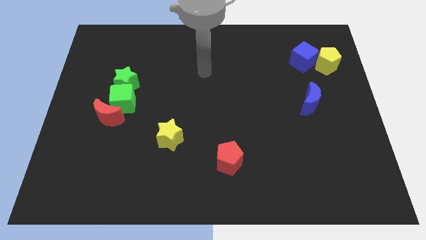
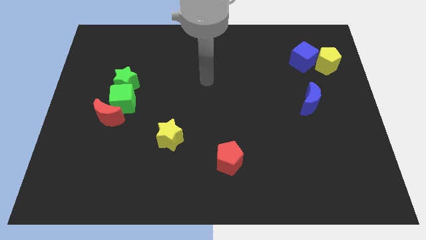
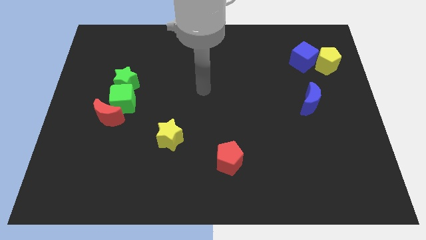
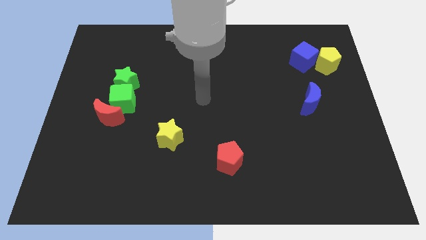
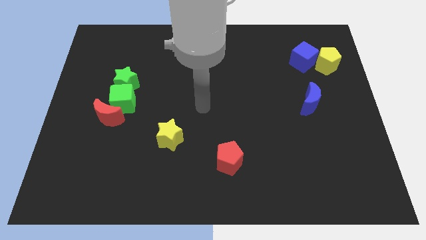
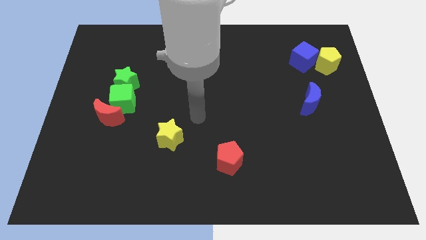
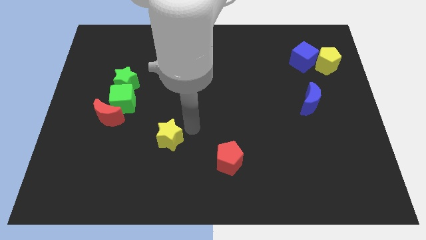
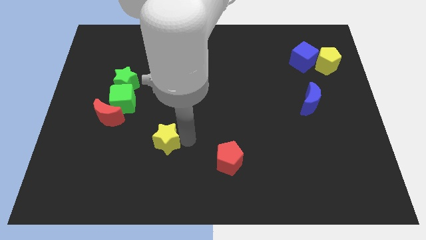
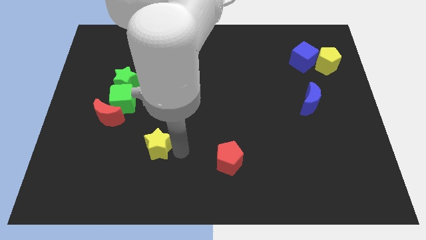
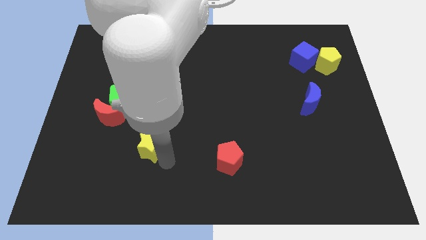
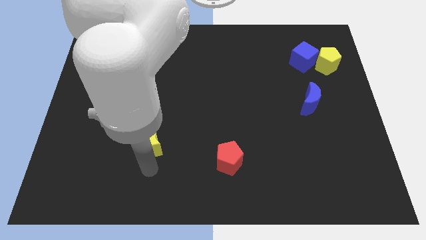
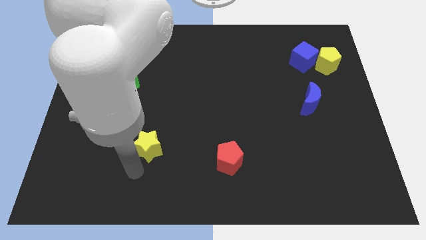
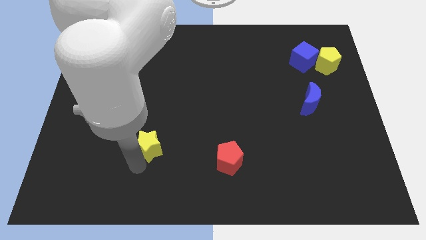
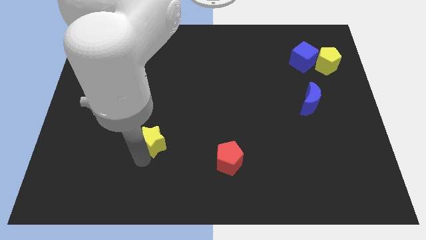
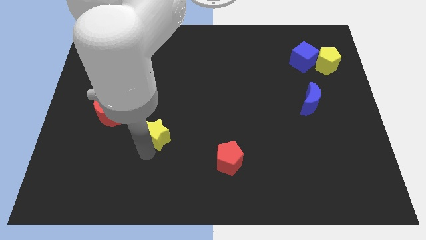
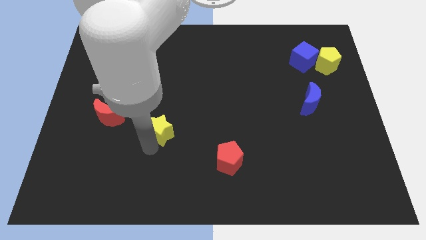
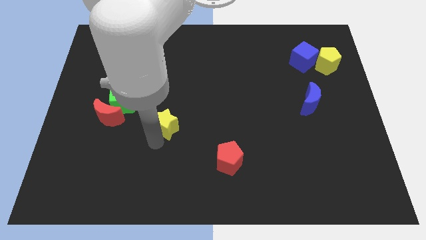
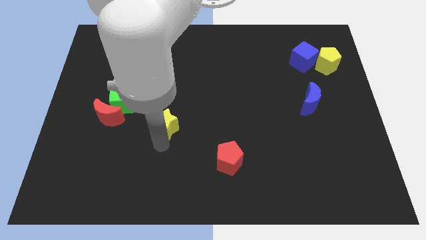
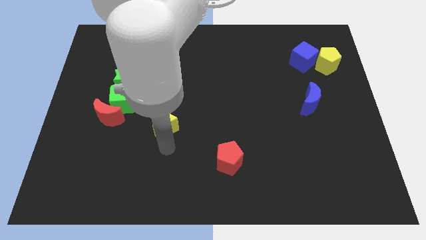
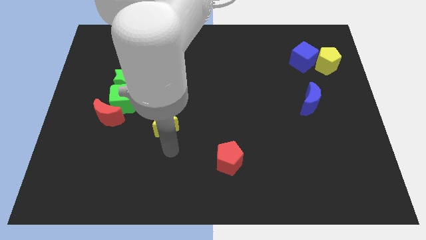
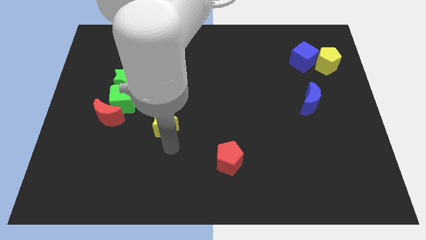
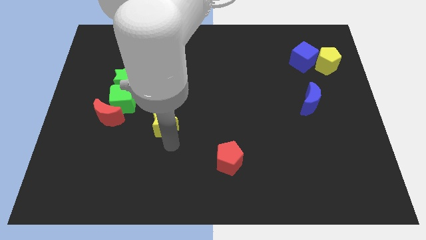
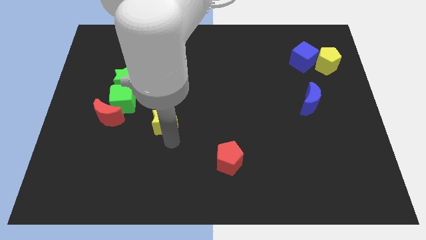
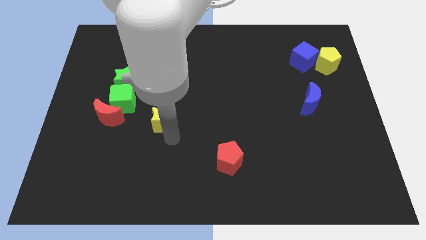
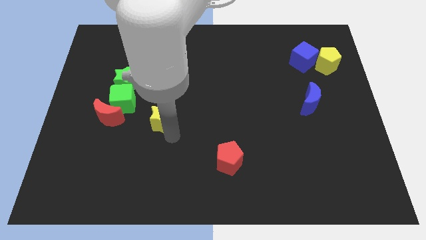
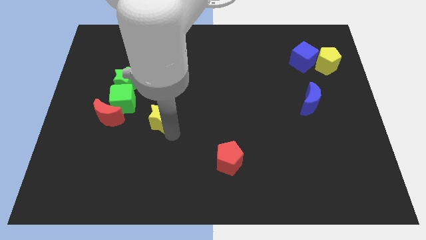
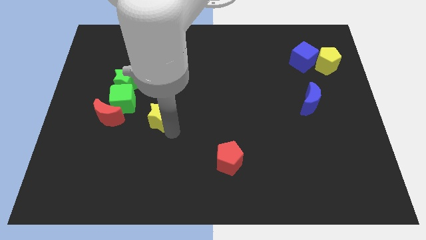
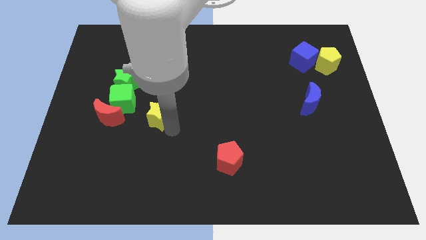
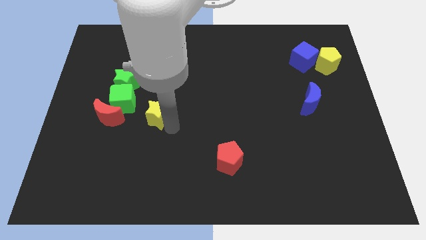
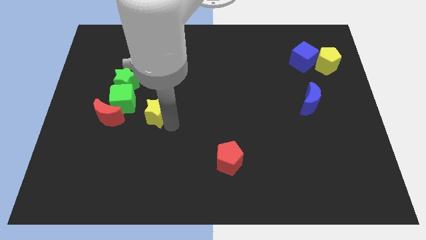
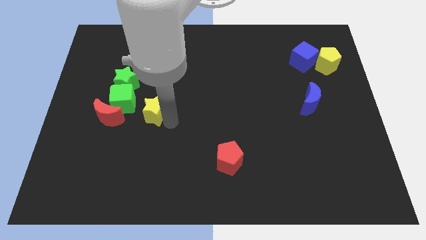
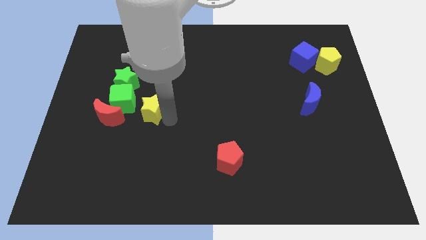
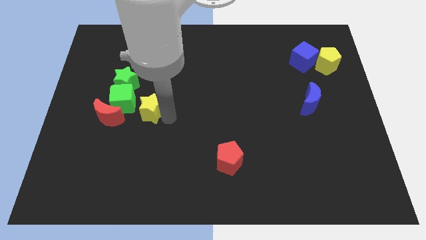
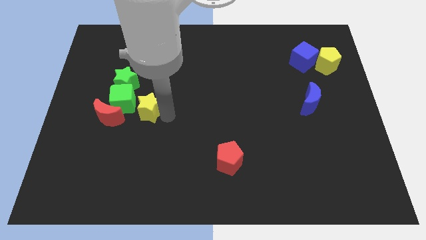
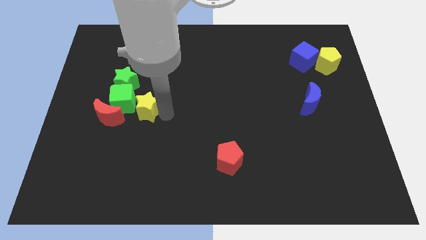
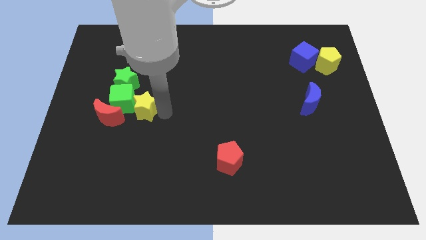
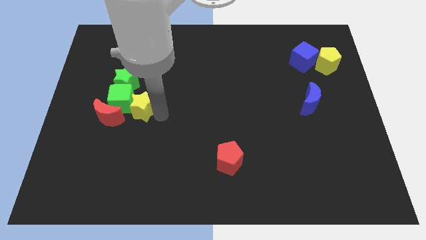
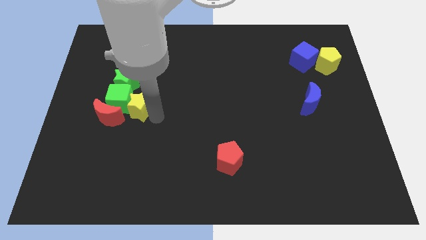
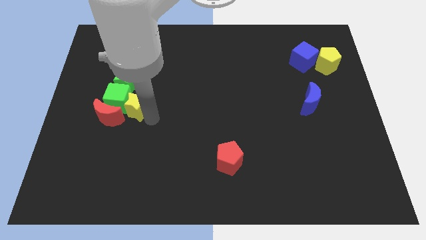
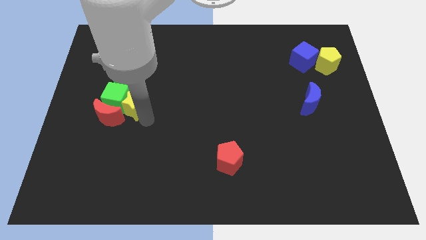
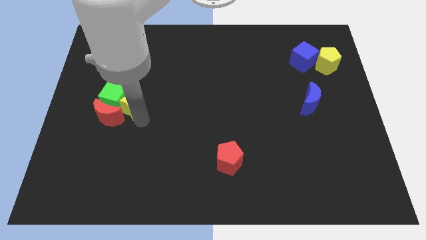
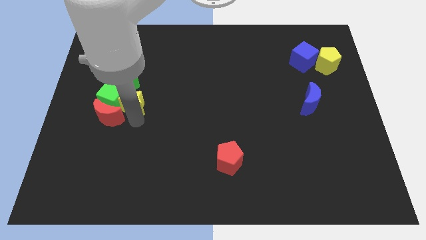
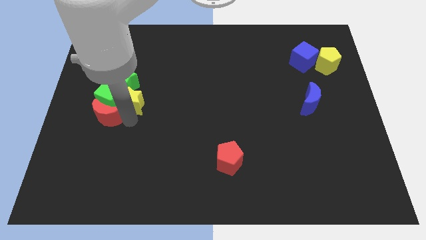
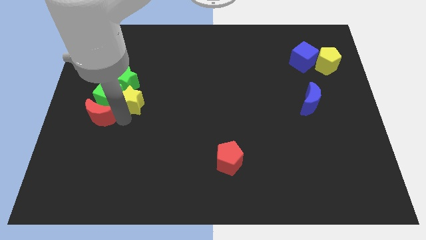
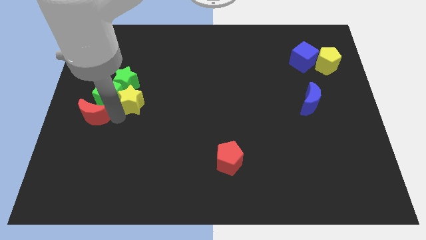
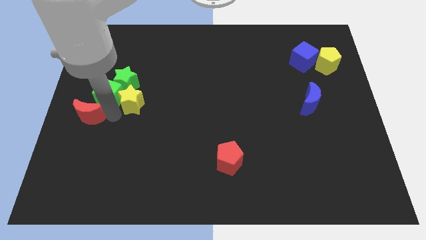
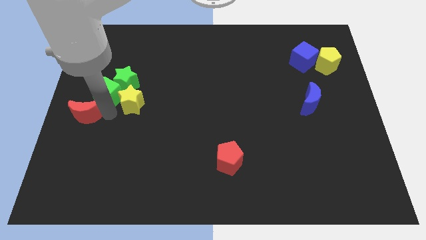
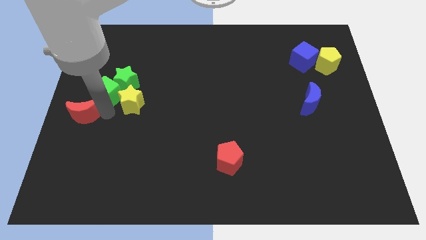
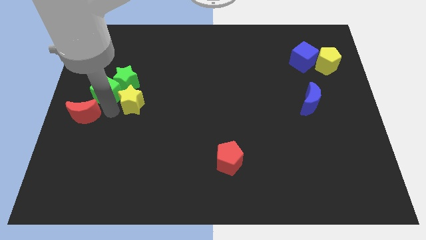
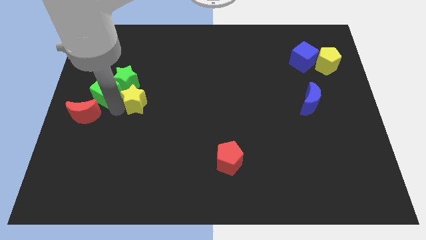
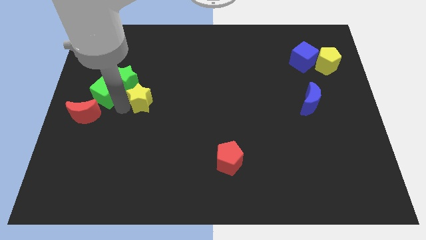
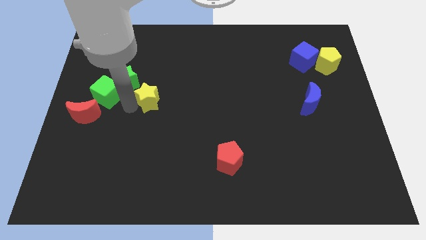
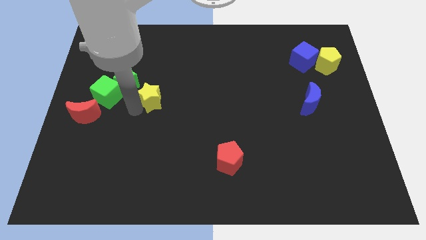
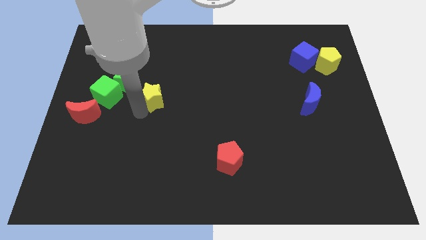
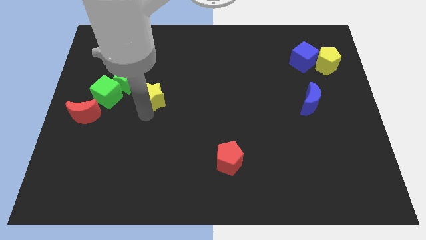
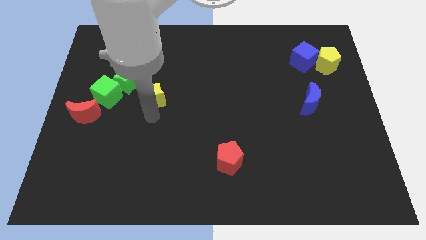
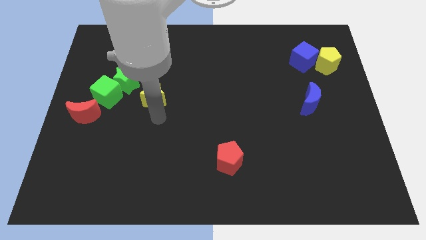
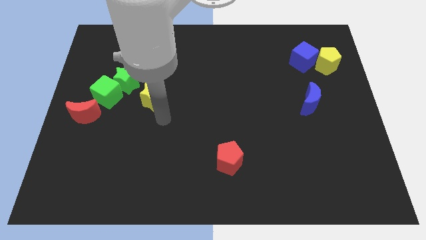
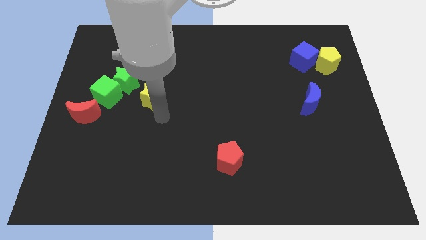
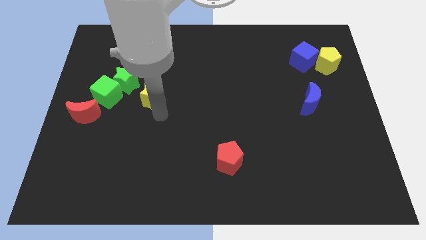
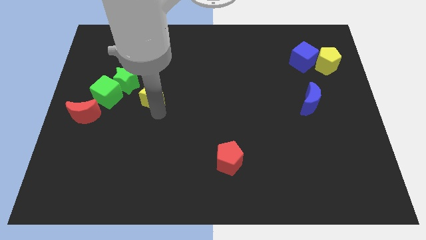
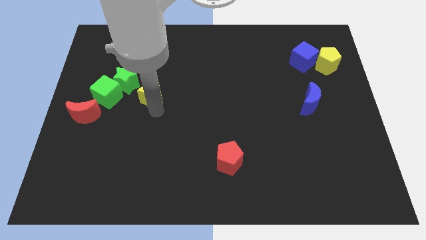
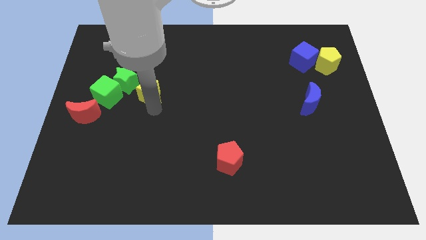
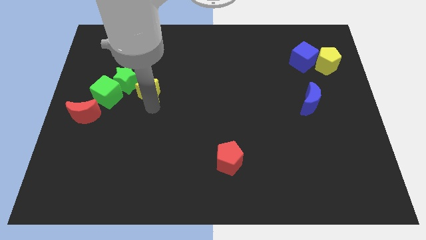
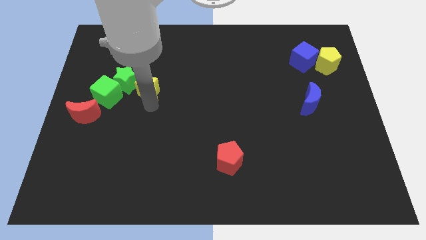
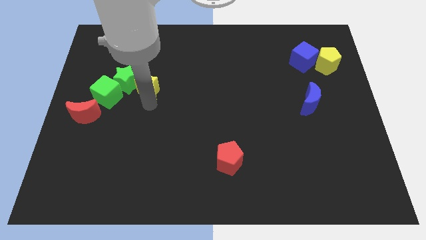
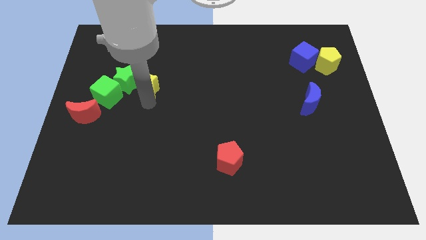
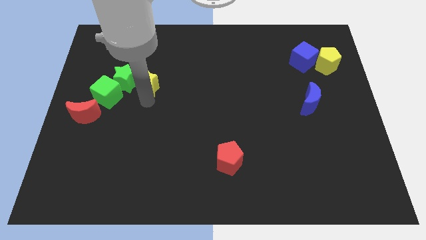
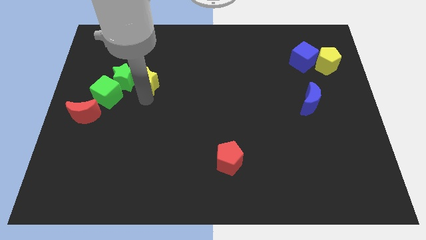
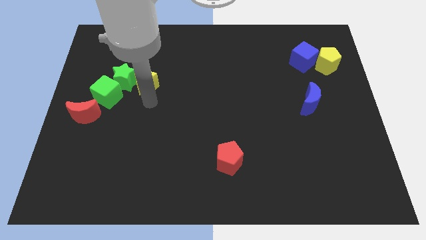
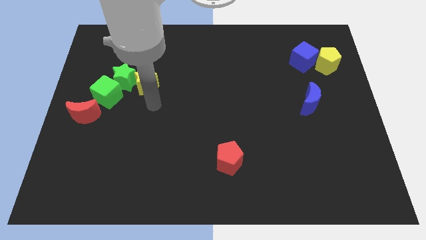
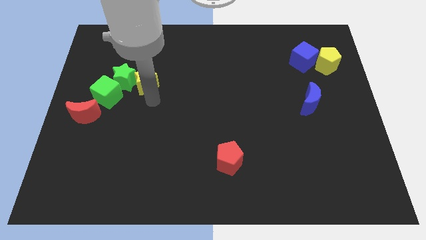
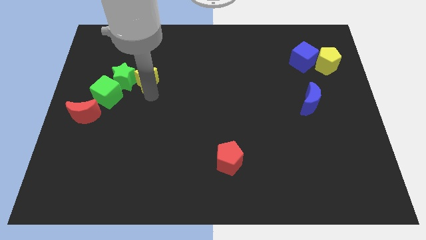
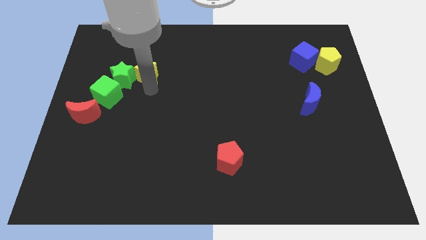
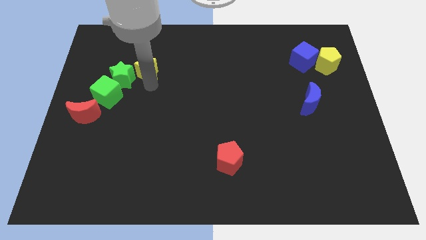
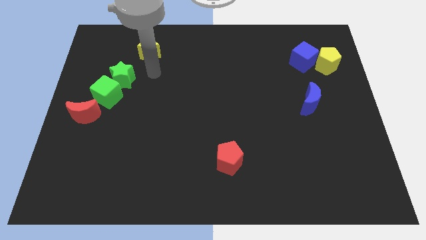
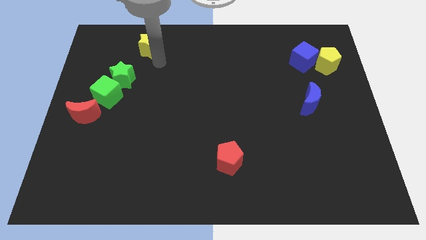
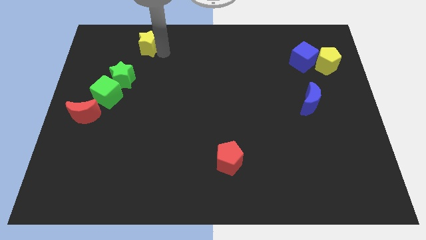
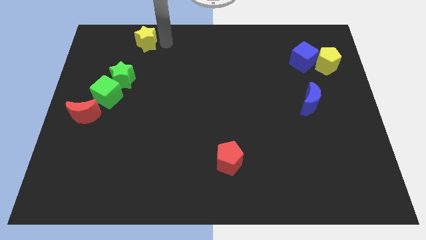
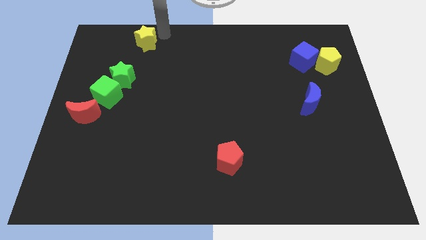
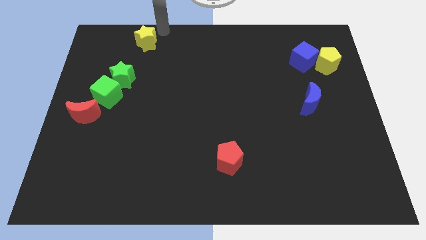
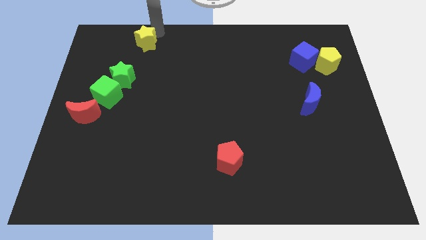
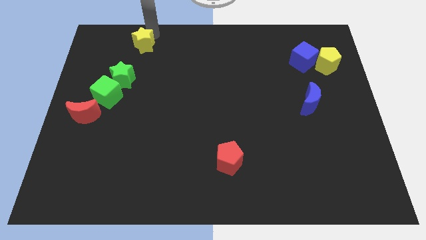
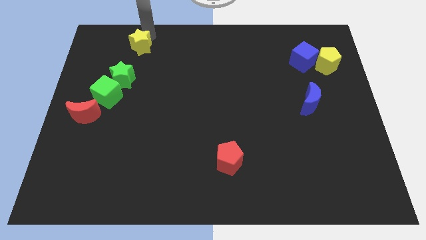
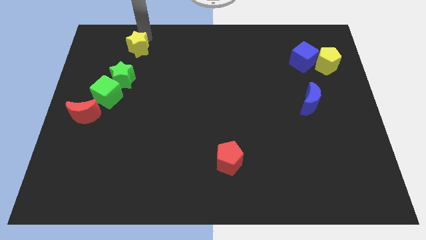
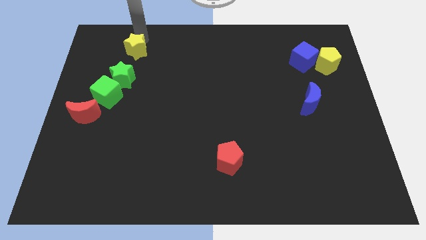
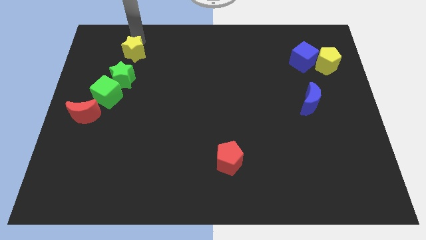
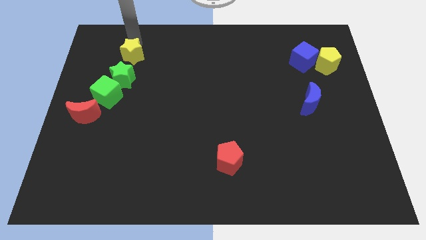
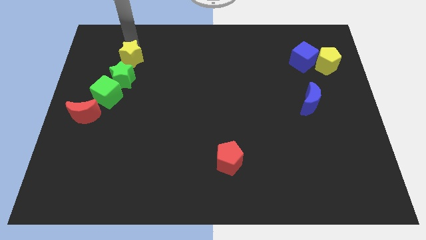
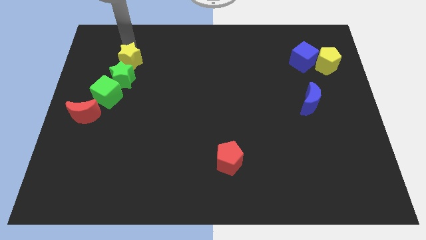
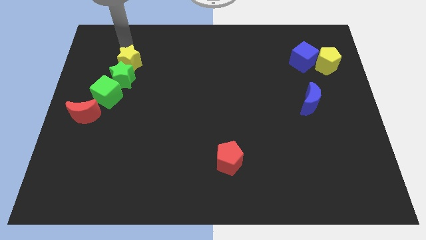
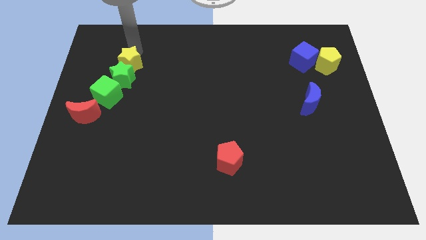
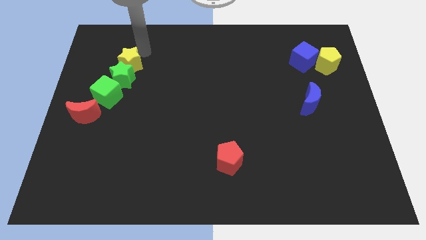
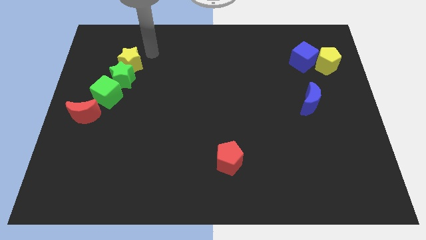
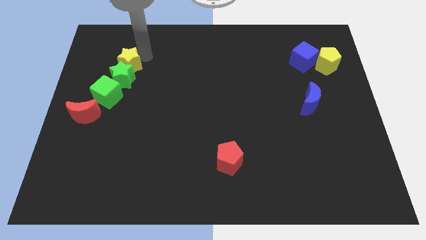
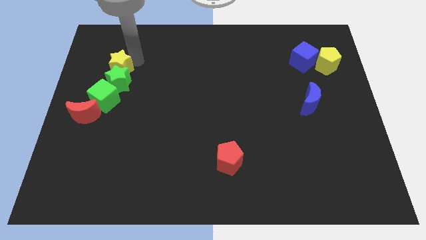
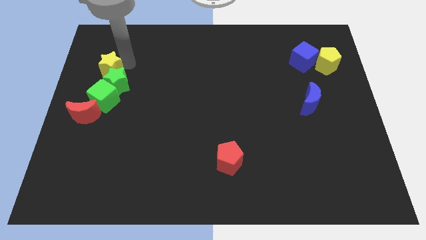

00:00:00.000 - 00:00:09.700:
move the yellow star to the top of the red moon
